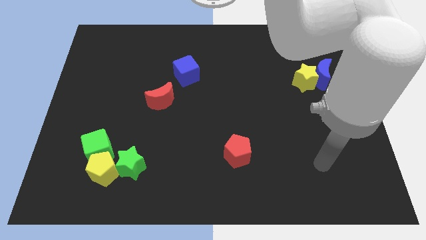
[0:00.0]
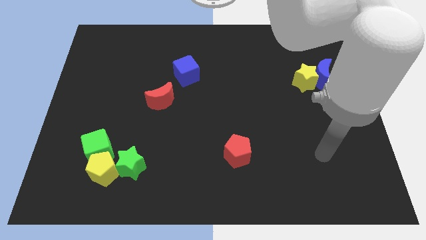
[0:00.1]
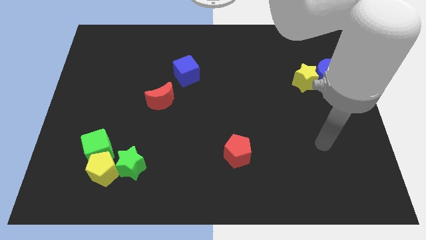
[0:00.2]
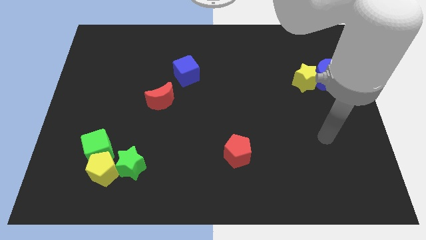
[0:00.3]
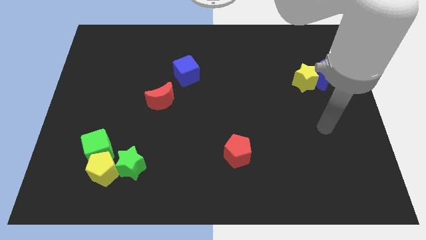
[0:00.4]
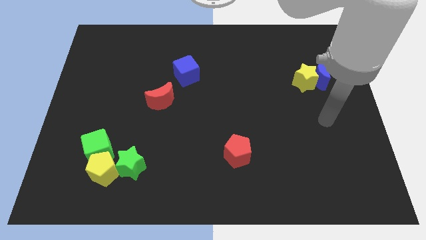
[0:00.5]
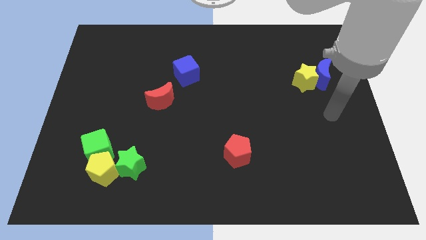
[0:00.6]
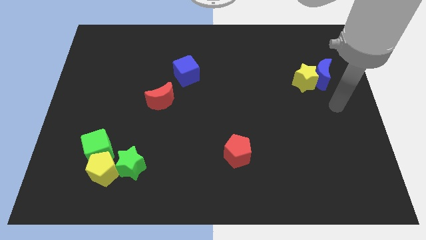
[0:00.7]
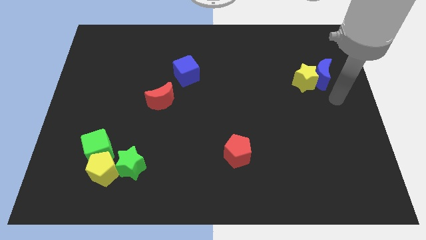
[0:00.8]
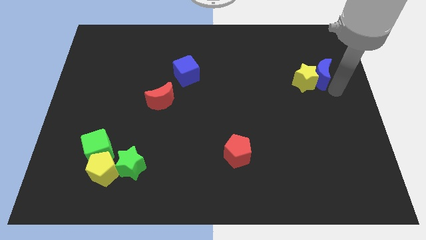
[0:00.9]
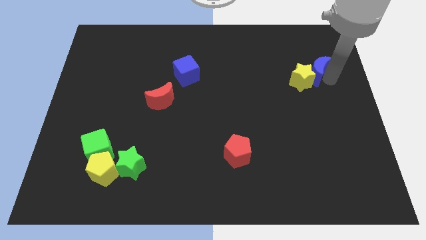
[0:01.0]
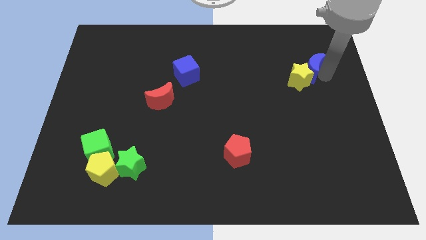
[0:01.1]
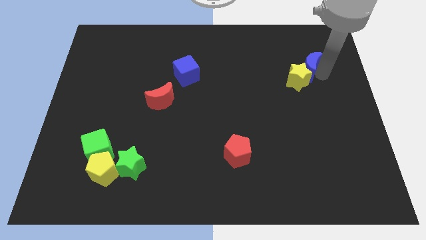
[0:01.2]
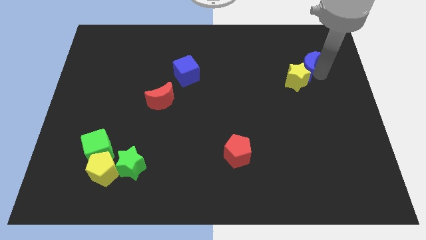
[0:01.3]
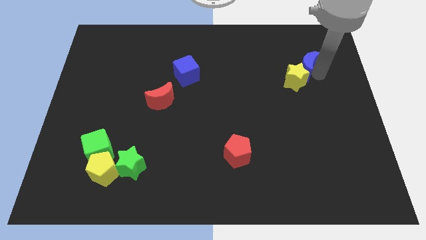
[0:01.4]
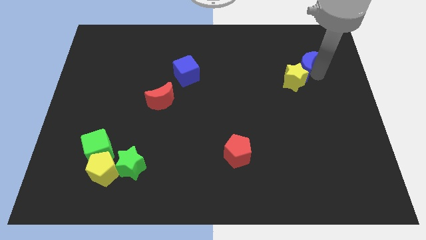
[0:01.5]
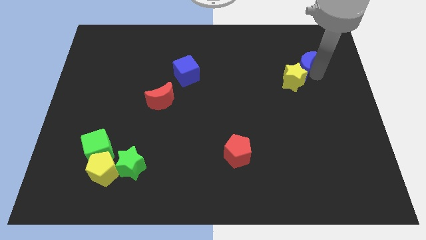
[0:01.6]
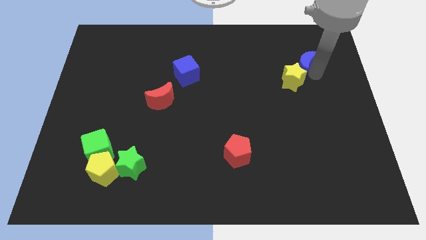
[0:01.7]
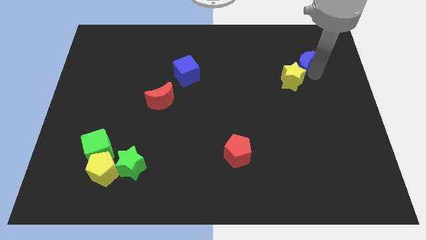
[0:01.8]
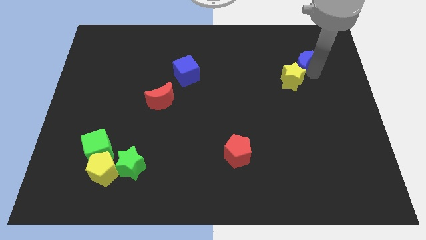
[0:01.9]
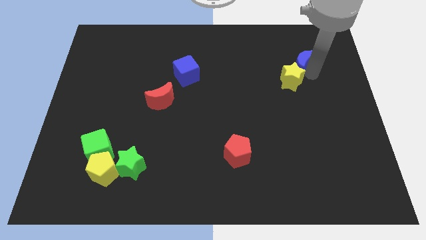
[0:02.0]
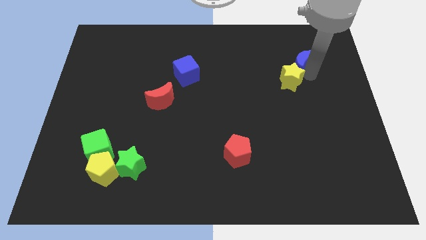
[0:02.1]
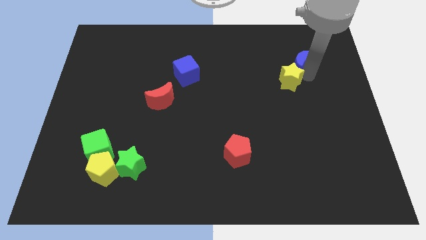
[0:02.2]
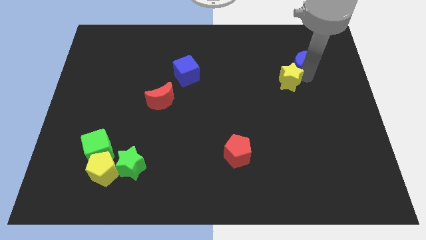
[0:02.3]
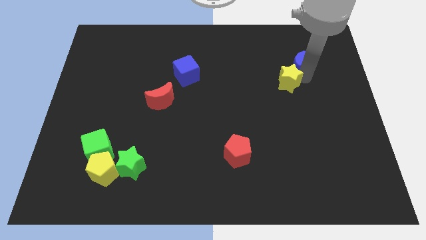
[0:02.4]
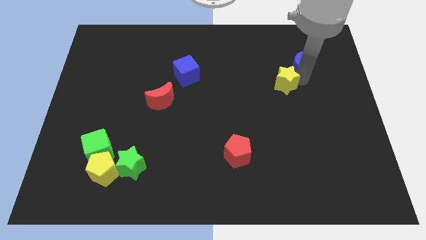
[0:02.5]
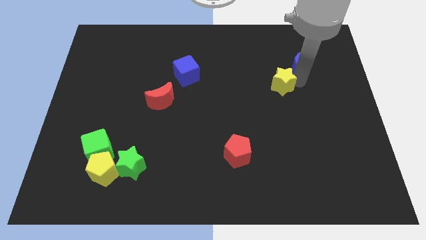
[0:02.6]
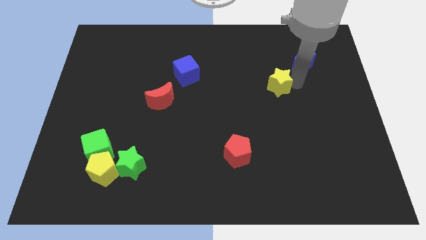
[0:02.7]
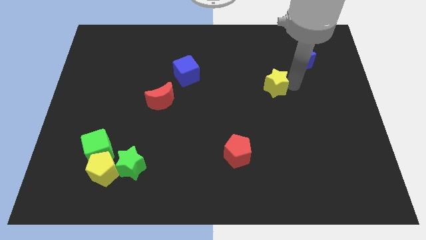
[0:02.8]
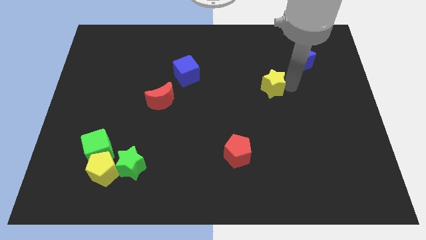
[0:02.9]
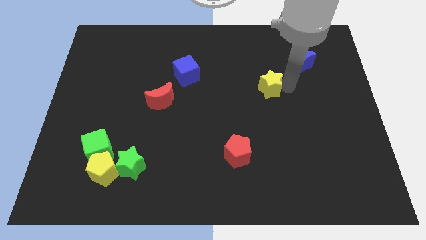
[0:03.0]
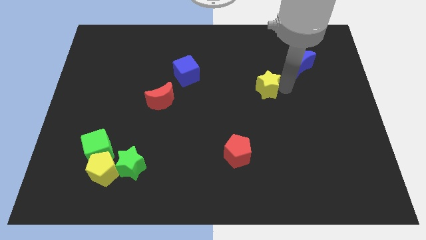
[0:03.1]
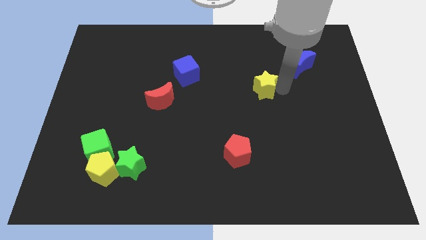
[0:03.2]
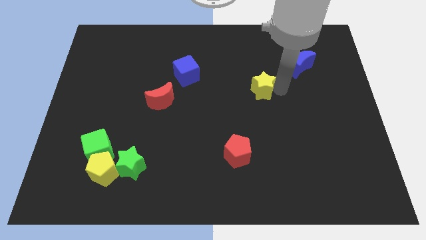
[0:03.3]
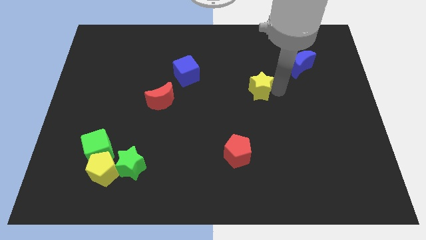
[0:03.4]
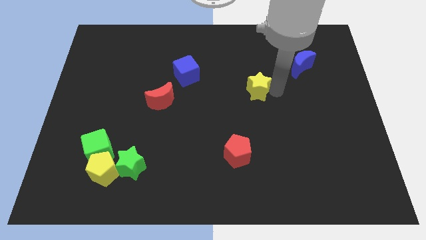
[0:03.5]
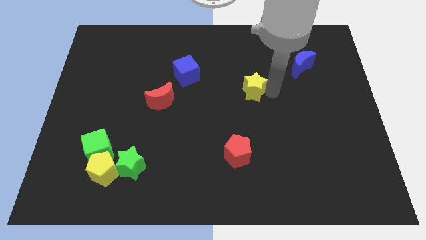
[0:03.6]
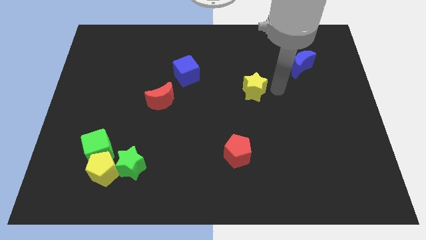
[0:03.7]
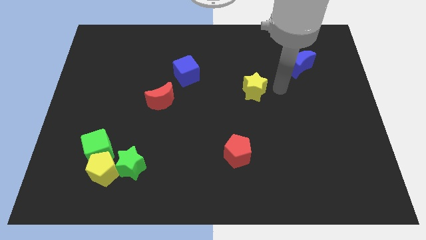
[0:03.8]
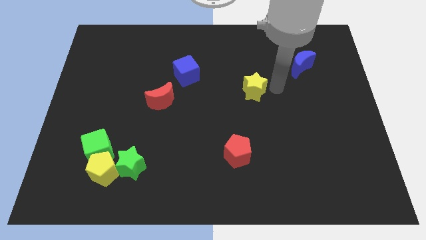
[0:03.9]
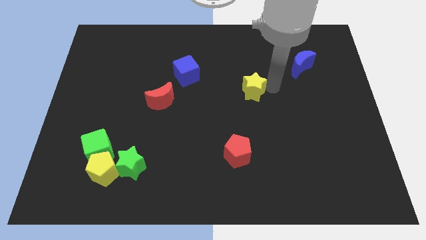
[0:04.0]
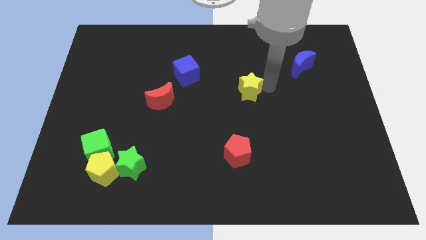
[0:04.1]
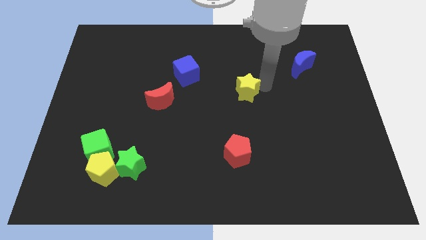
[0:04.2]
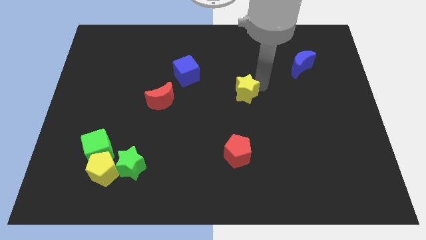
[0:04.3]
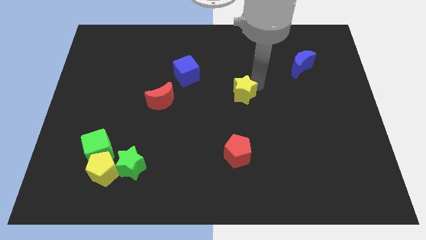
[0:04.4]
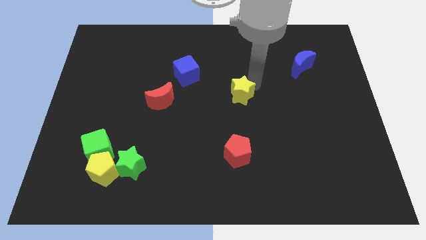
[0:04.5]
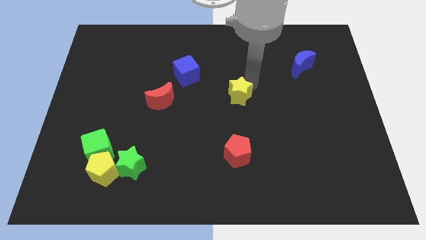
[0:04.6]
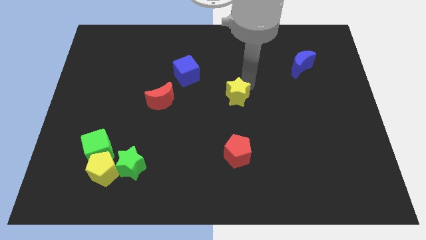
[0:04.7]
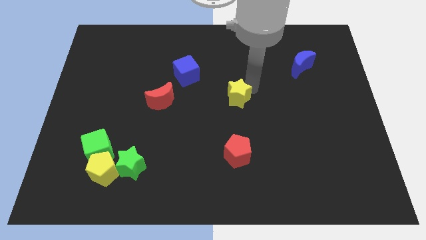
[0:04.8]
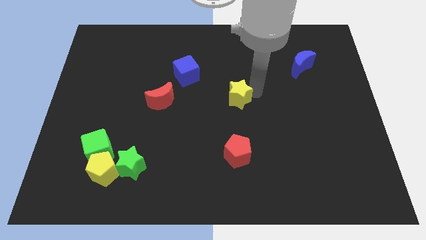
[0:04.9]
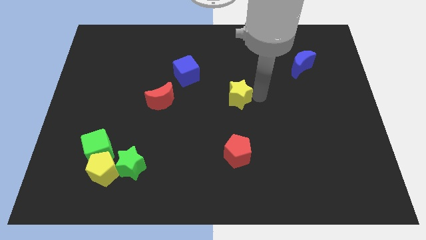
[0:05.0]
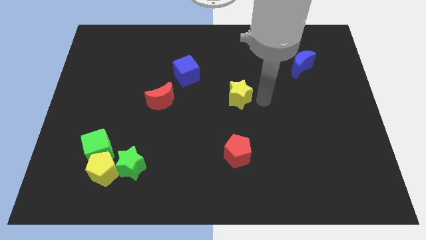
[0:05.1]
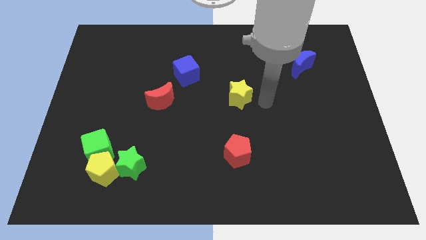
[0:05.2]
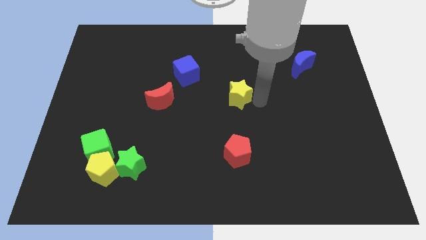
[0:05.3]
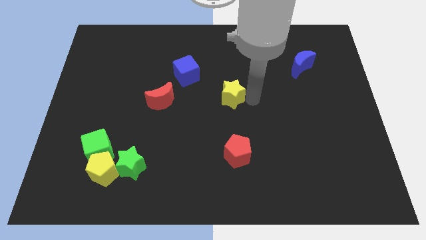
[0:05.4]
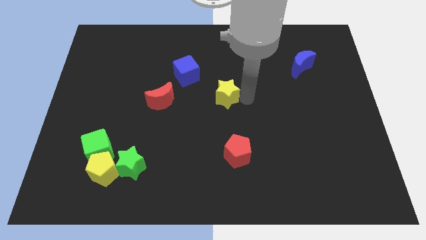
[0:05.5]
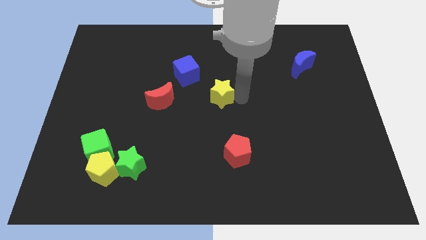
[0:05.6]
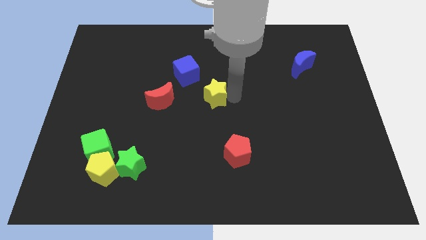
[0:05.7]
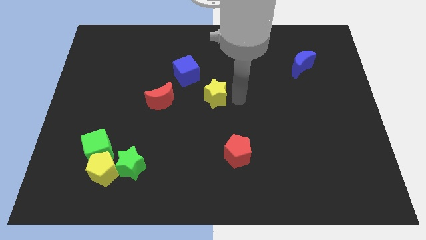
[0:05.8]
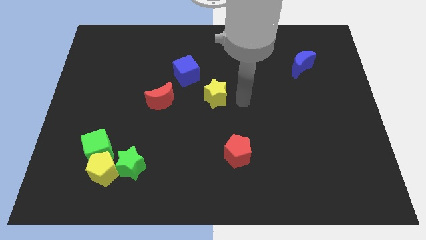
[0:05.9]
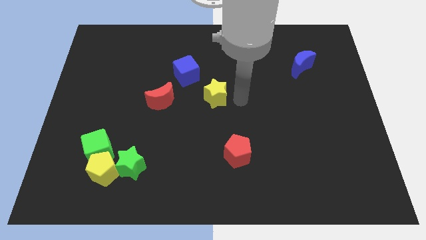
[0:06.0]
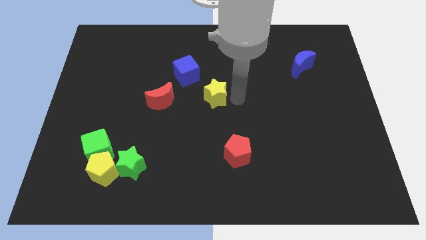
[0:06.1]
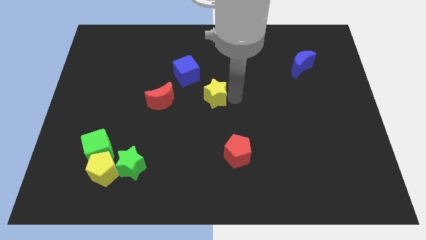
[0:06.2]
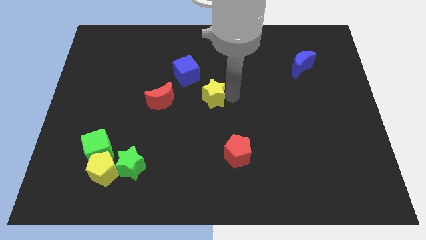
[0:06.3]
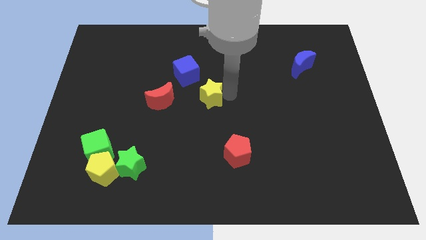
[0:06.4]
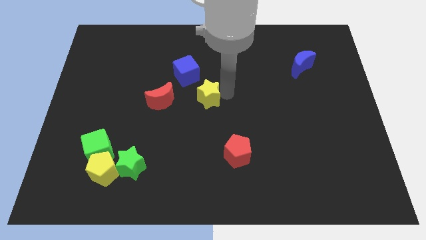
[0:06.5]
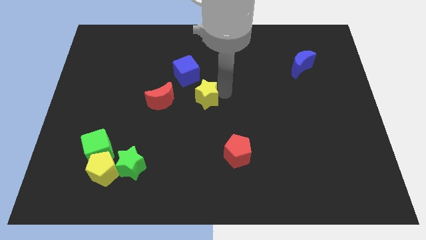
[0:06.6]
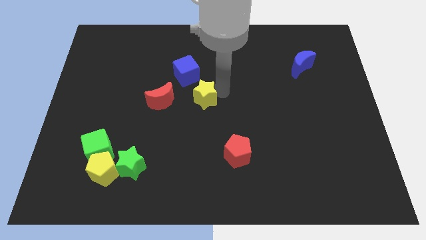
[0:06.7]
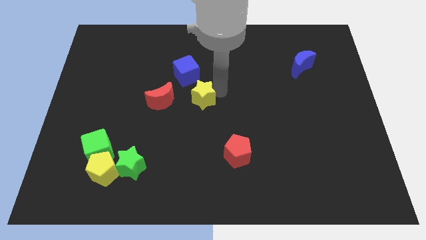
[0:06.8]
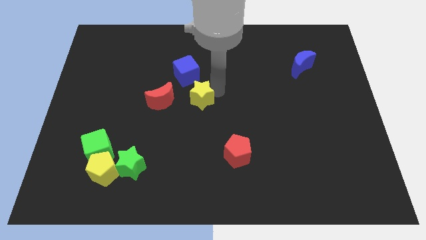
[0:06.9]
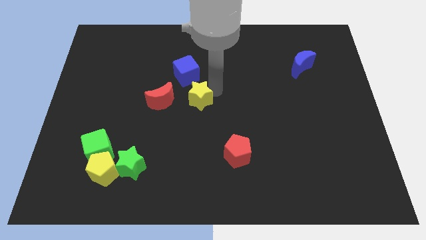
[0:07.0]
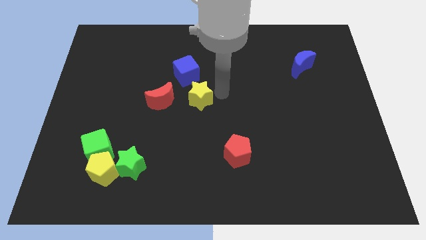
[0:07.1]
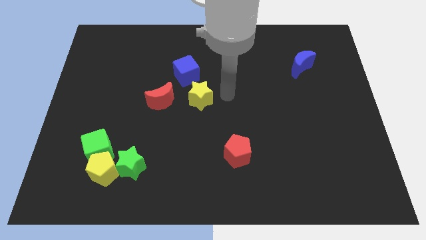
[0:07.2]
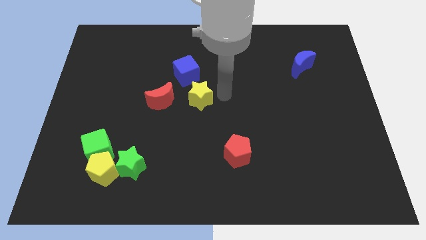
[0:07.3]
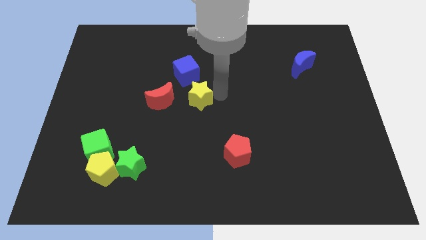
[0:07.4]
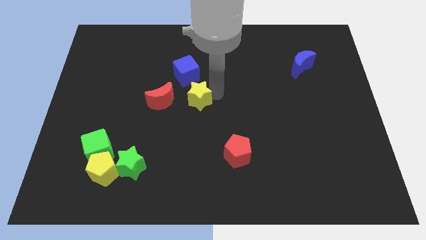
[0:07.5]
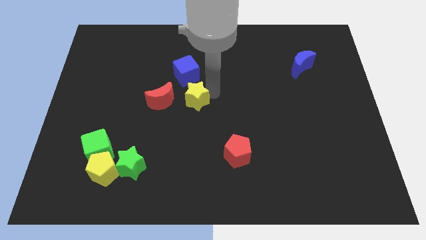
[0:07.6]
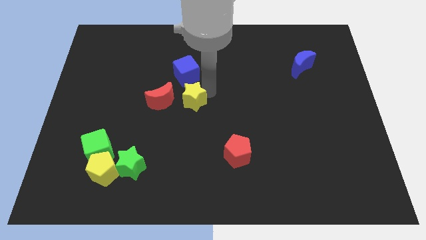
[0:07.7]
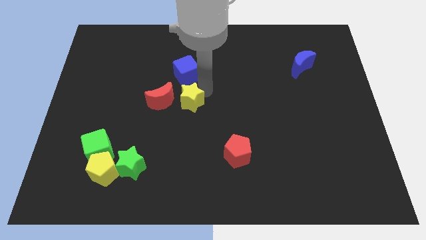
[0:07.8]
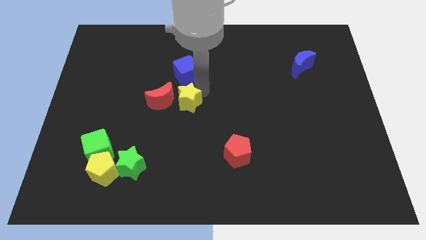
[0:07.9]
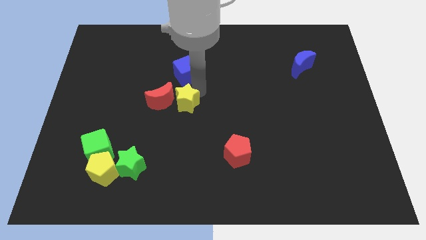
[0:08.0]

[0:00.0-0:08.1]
move the yellow star close to the red moon
